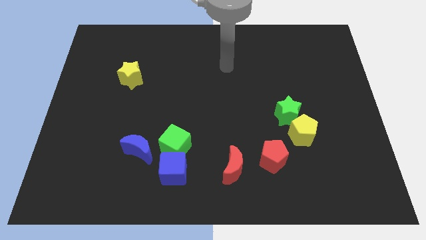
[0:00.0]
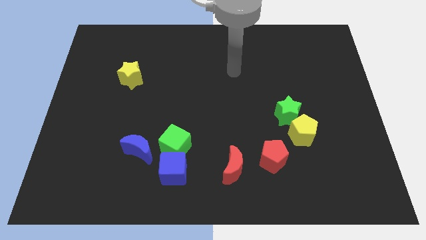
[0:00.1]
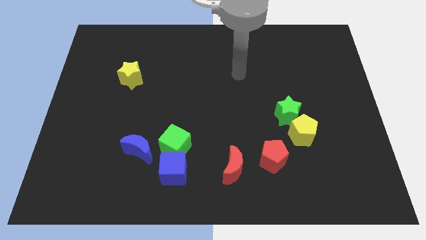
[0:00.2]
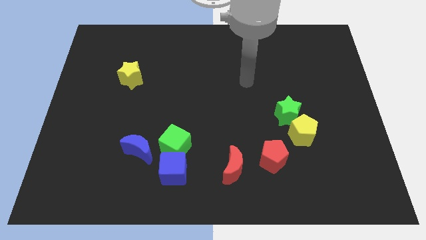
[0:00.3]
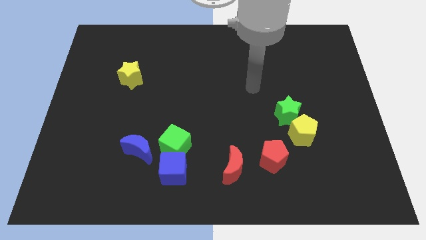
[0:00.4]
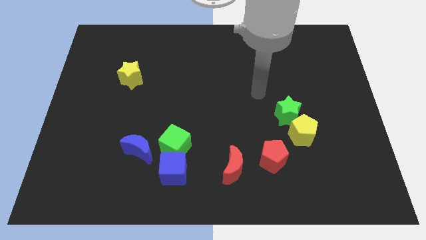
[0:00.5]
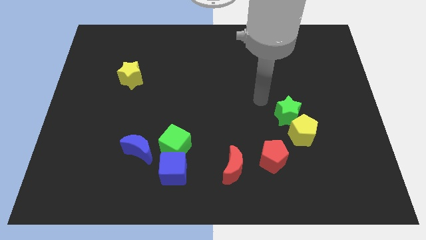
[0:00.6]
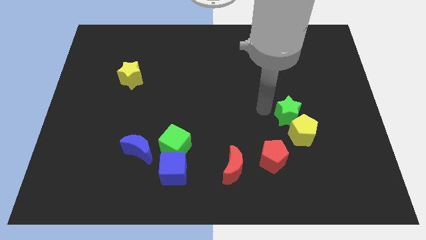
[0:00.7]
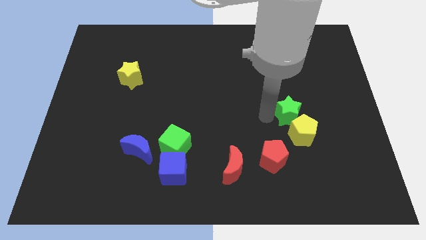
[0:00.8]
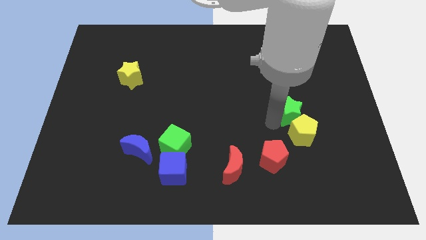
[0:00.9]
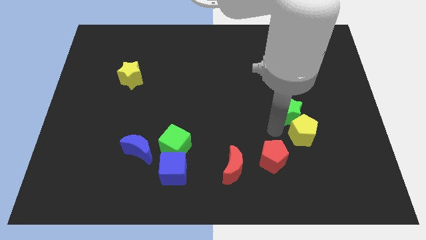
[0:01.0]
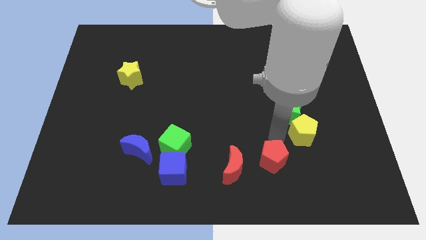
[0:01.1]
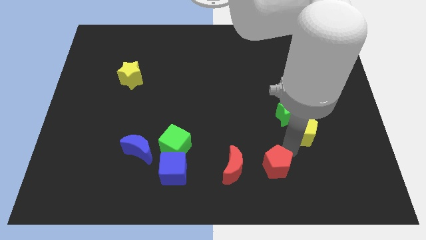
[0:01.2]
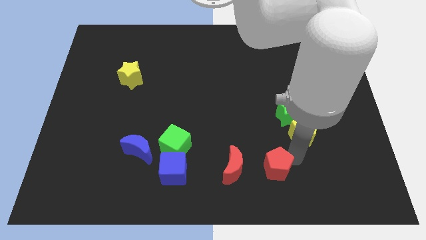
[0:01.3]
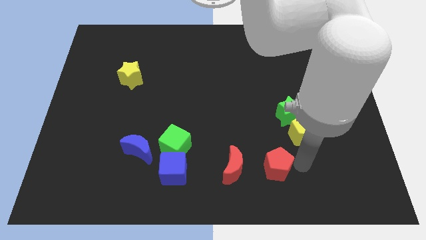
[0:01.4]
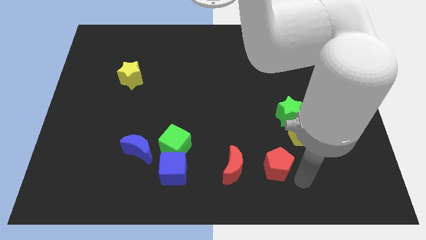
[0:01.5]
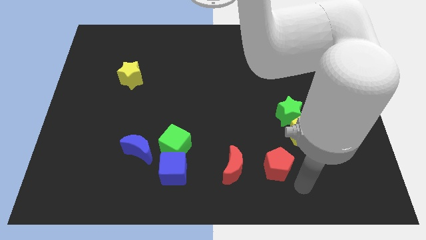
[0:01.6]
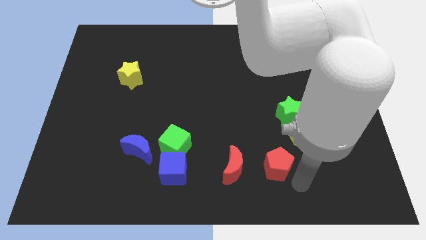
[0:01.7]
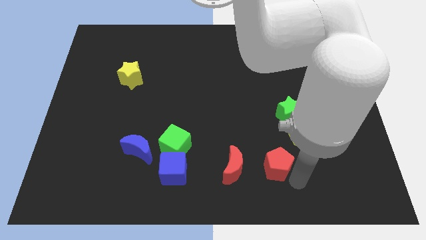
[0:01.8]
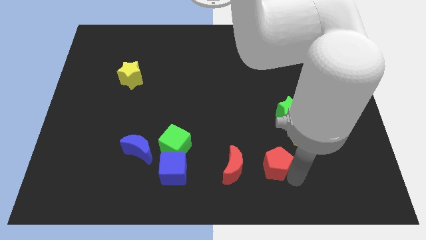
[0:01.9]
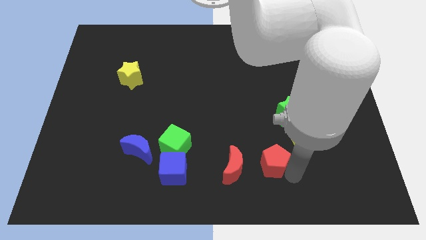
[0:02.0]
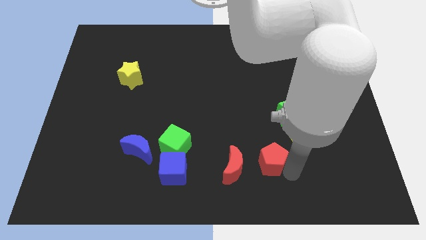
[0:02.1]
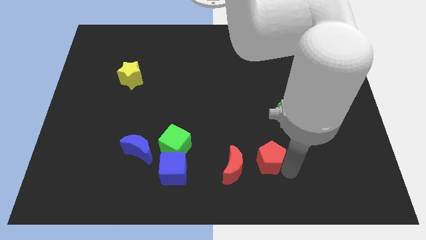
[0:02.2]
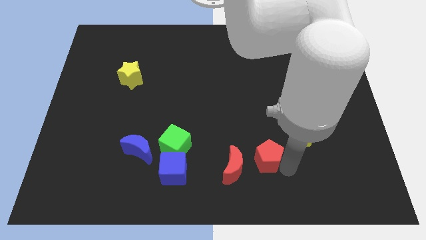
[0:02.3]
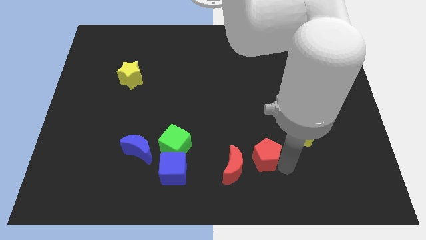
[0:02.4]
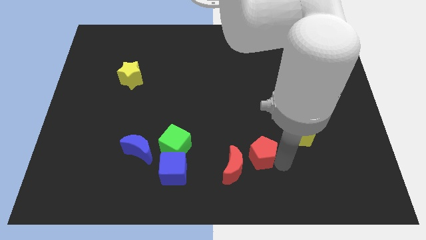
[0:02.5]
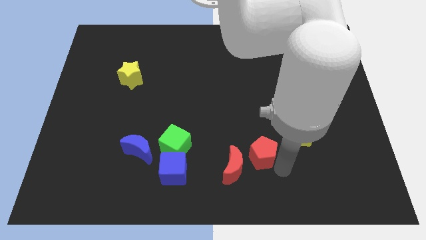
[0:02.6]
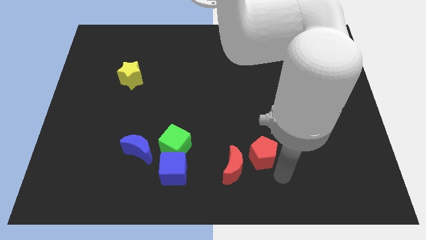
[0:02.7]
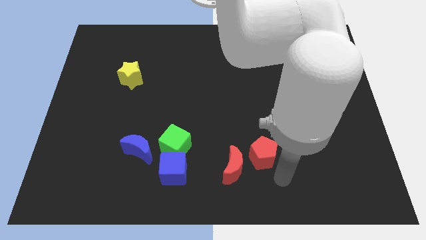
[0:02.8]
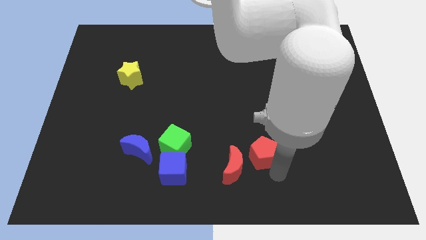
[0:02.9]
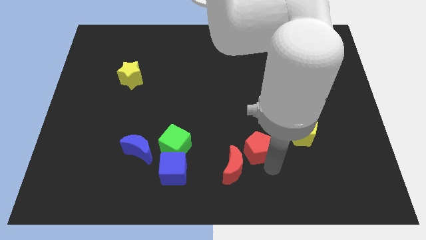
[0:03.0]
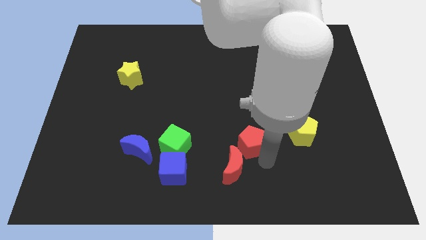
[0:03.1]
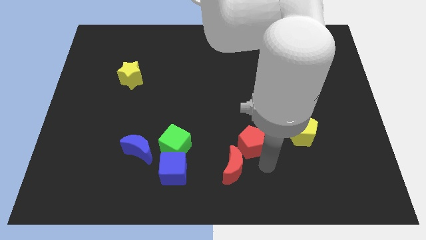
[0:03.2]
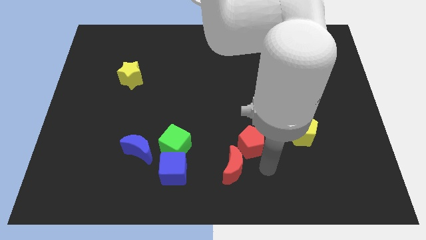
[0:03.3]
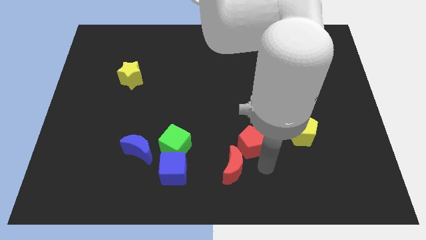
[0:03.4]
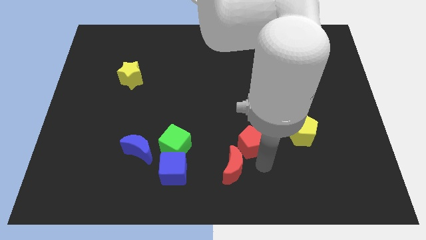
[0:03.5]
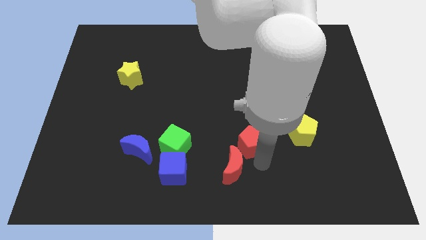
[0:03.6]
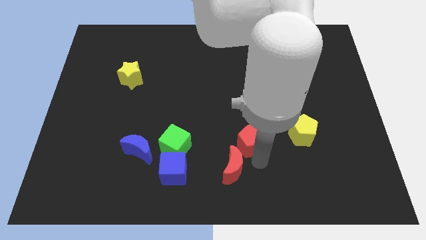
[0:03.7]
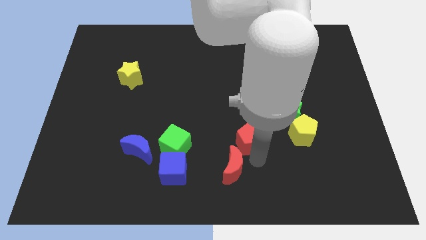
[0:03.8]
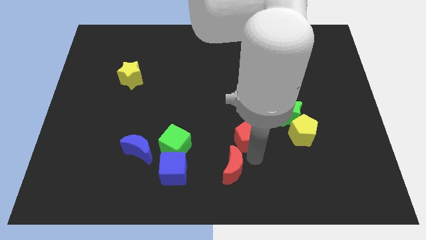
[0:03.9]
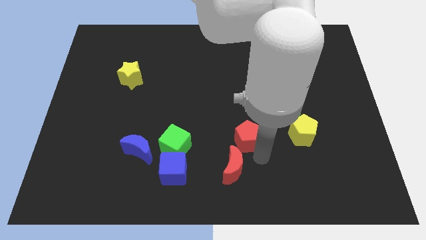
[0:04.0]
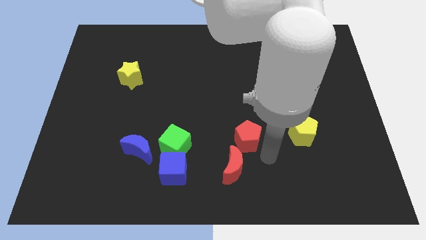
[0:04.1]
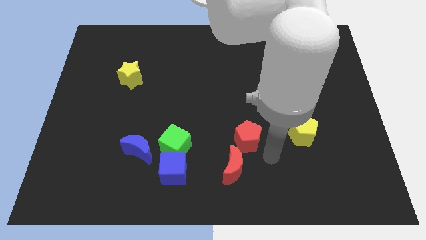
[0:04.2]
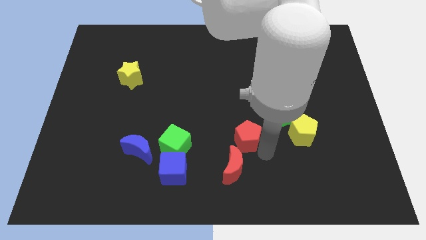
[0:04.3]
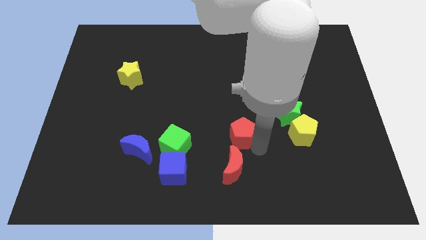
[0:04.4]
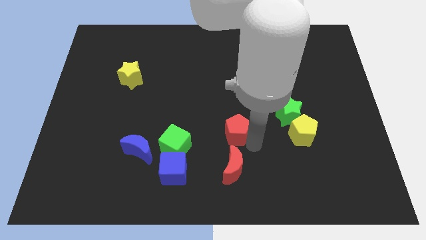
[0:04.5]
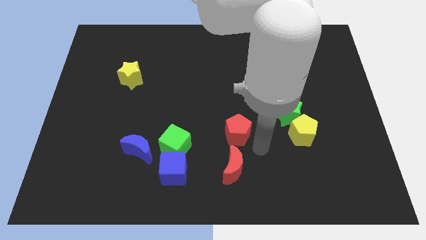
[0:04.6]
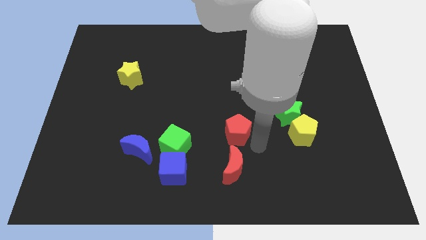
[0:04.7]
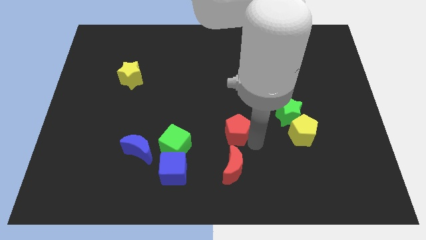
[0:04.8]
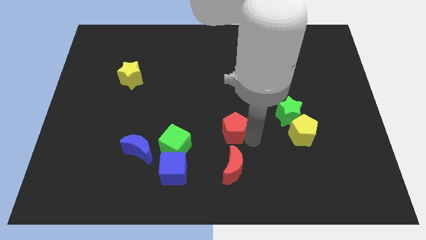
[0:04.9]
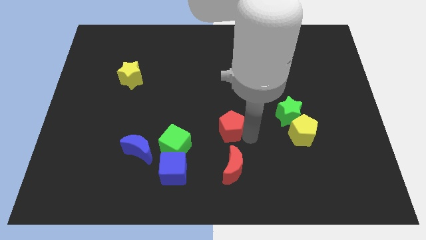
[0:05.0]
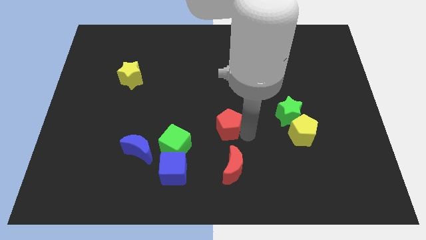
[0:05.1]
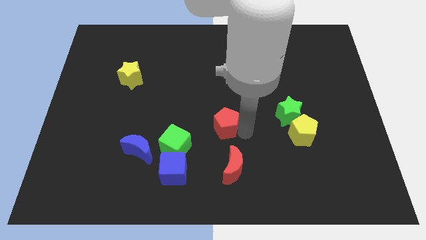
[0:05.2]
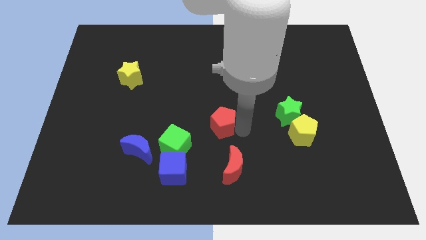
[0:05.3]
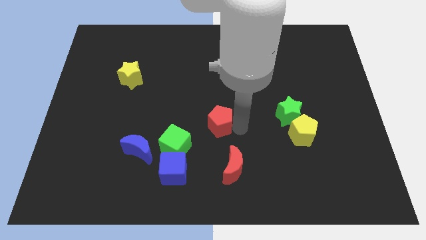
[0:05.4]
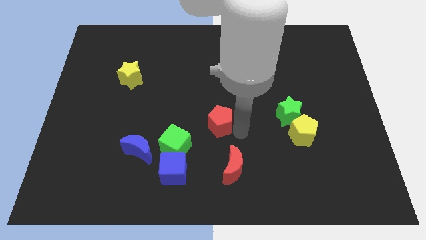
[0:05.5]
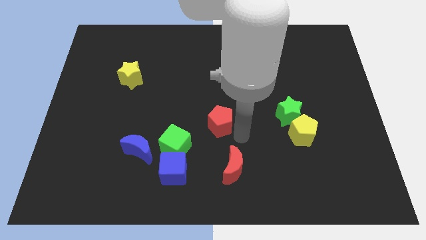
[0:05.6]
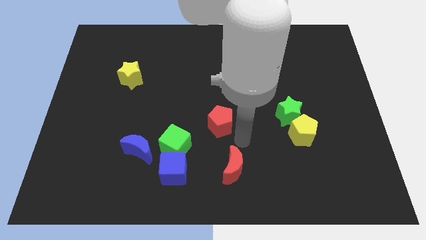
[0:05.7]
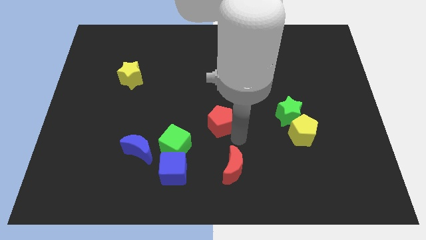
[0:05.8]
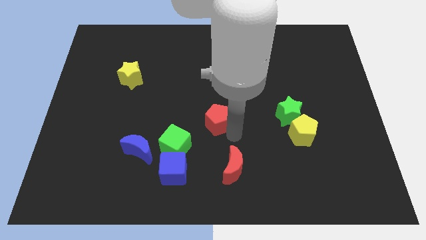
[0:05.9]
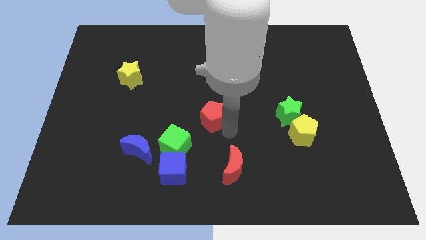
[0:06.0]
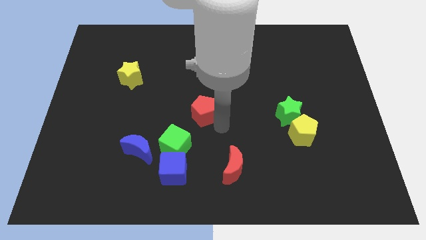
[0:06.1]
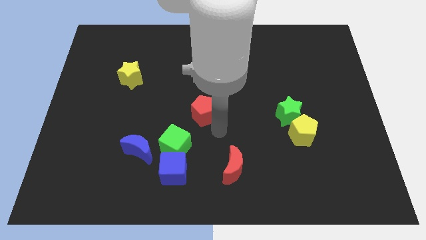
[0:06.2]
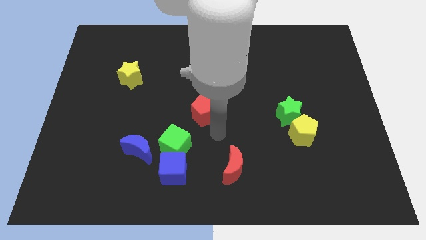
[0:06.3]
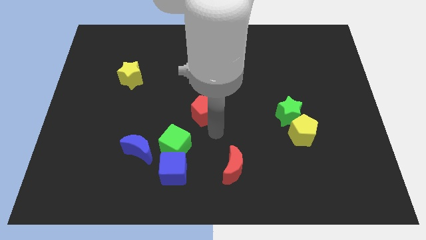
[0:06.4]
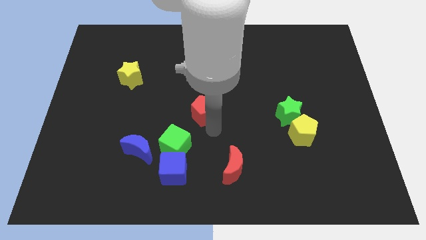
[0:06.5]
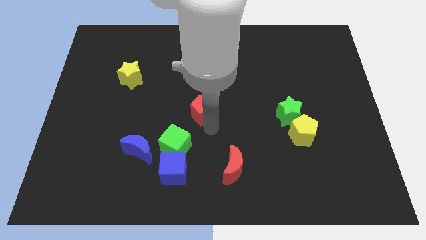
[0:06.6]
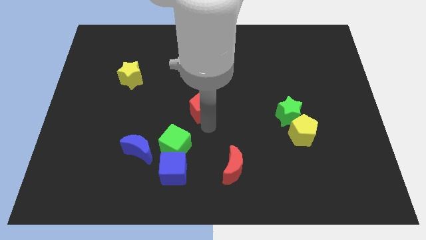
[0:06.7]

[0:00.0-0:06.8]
slide the red pentagon up and left diagonally

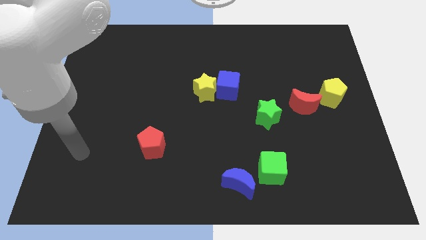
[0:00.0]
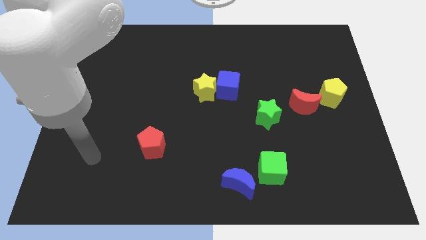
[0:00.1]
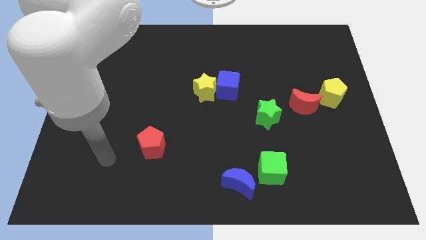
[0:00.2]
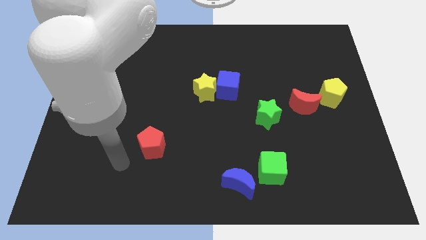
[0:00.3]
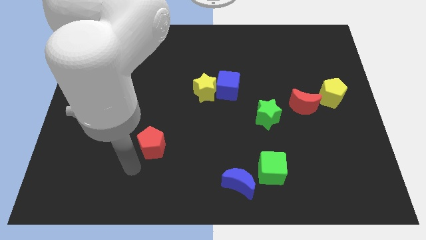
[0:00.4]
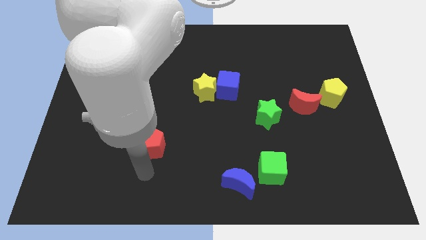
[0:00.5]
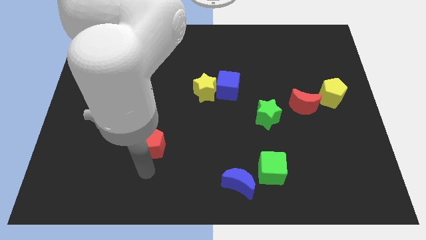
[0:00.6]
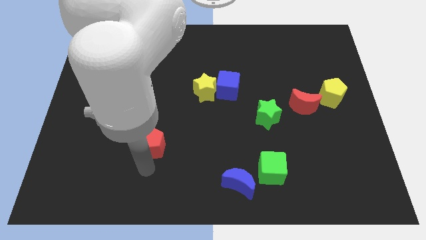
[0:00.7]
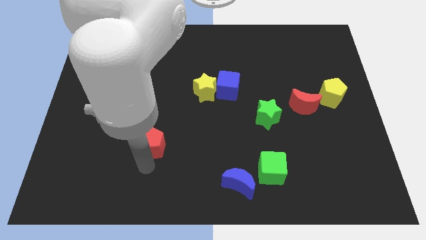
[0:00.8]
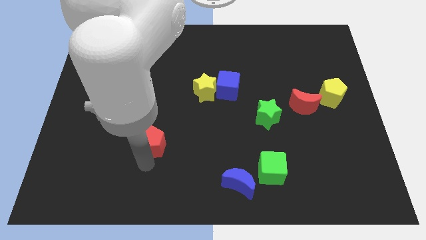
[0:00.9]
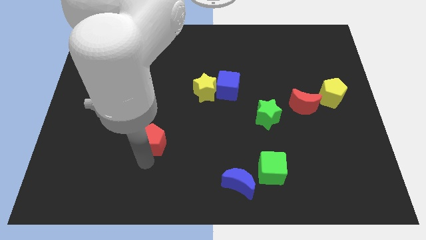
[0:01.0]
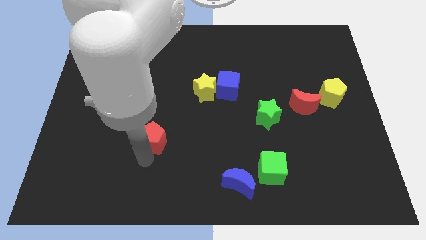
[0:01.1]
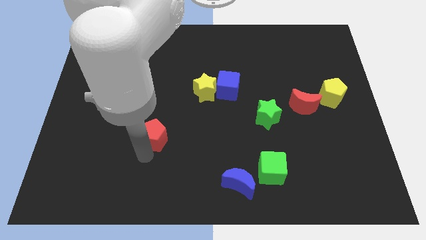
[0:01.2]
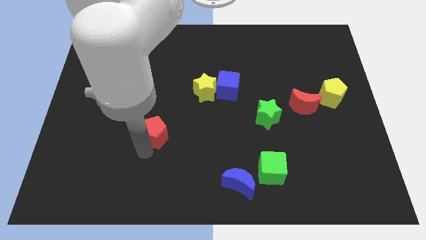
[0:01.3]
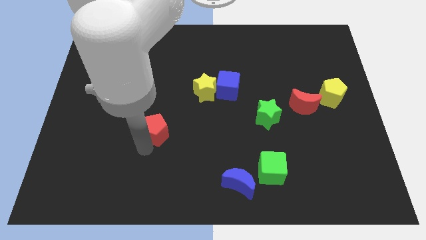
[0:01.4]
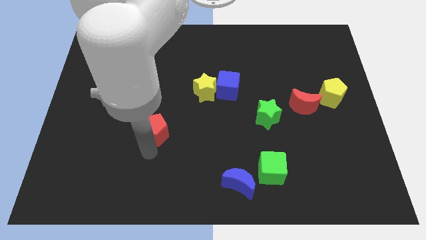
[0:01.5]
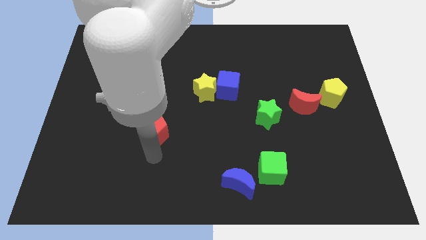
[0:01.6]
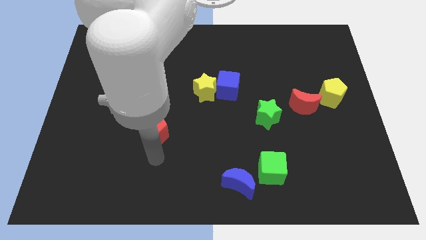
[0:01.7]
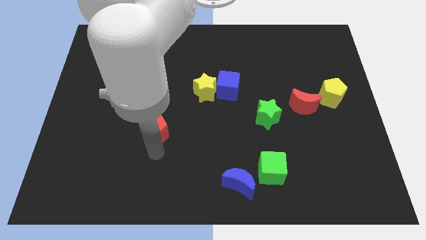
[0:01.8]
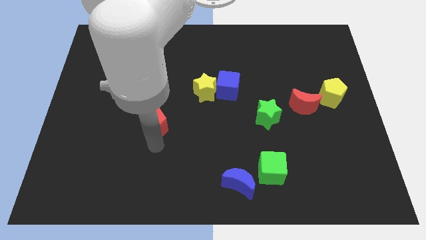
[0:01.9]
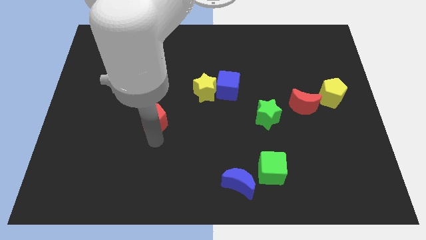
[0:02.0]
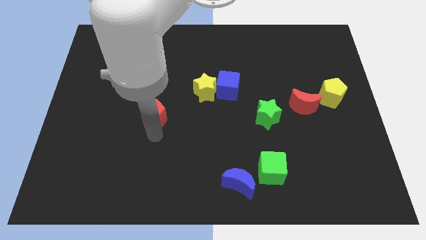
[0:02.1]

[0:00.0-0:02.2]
move the red pentagon somewhat upwards
